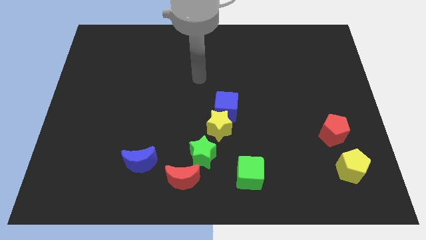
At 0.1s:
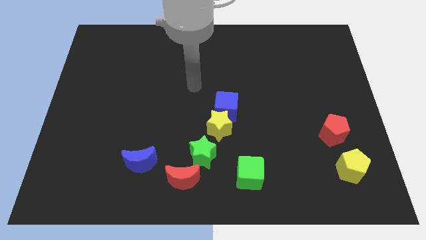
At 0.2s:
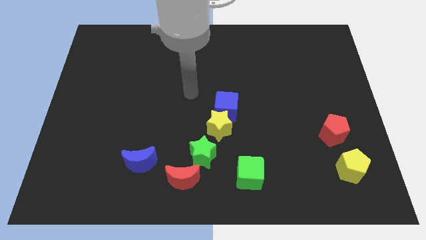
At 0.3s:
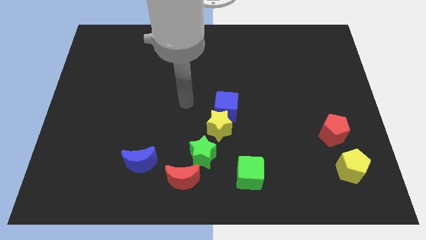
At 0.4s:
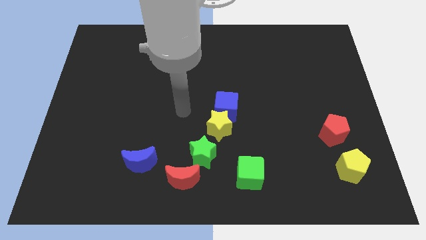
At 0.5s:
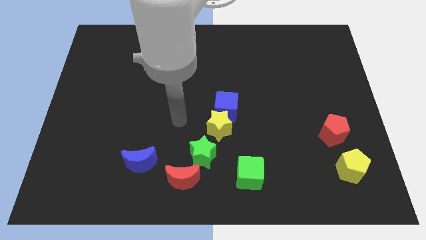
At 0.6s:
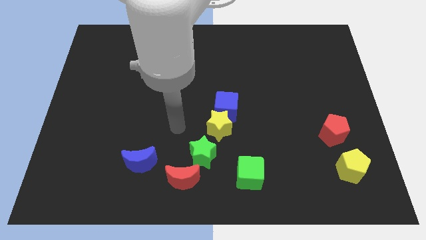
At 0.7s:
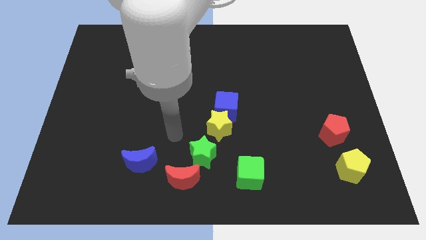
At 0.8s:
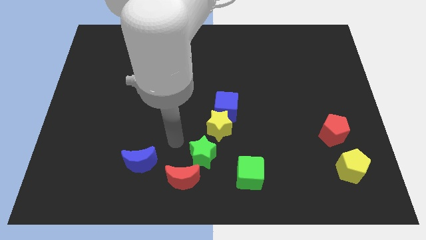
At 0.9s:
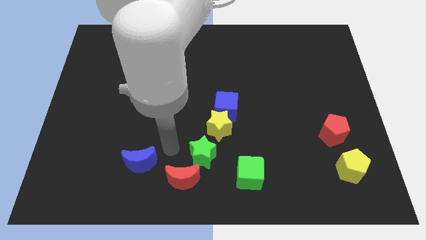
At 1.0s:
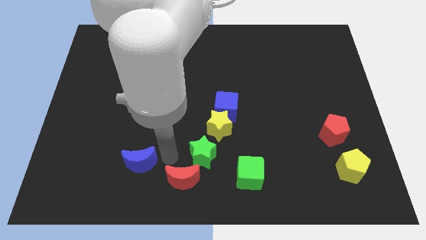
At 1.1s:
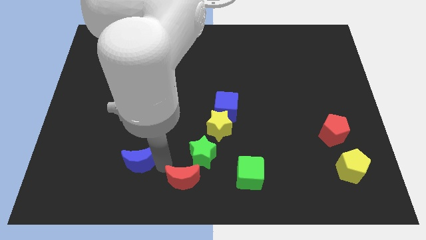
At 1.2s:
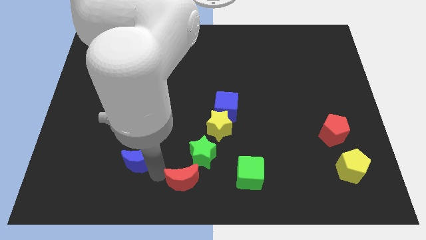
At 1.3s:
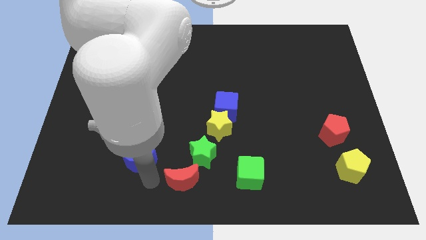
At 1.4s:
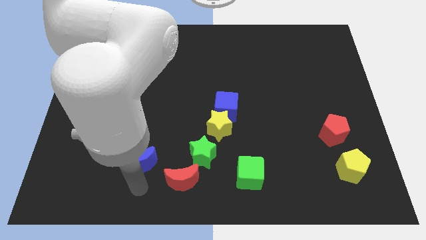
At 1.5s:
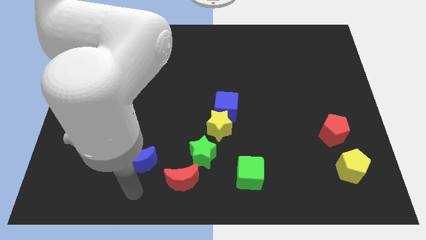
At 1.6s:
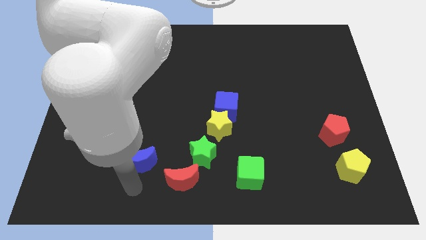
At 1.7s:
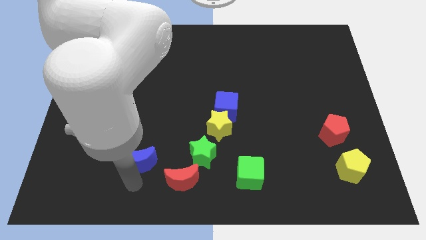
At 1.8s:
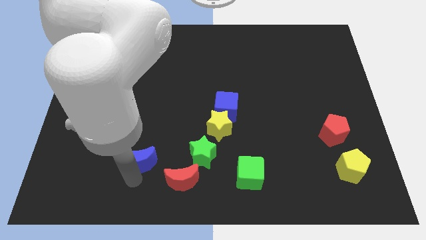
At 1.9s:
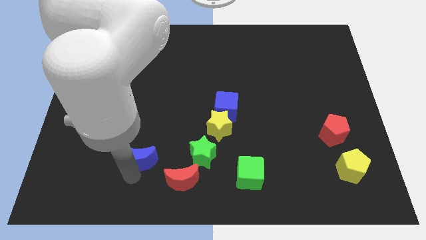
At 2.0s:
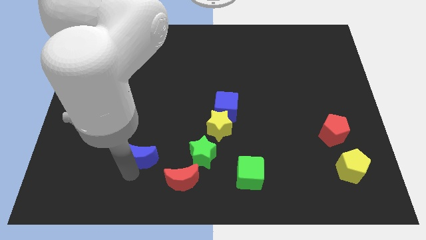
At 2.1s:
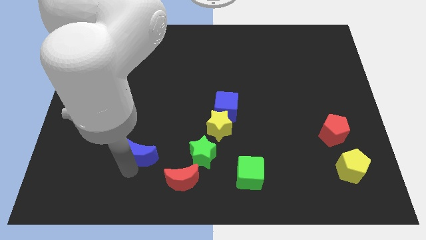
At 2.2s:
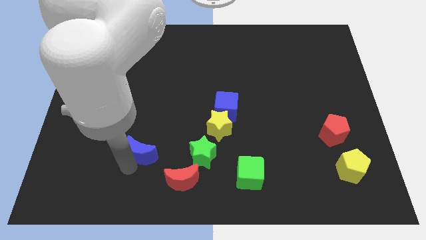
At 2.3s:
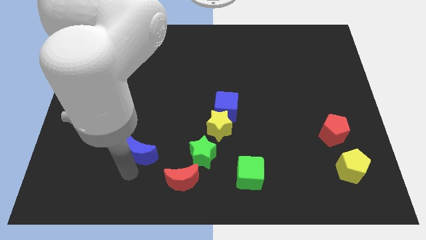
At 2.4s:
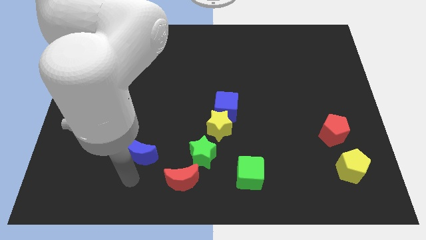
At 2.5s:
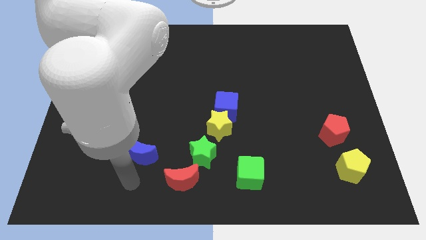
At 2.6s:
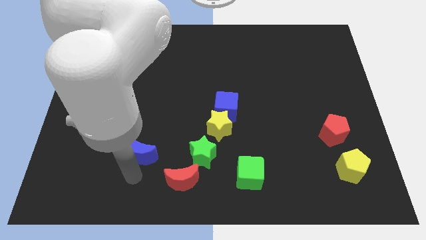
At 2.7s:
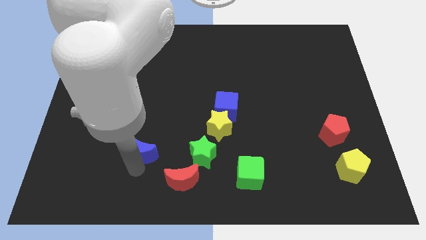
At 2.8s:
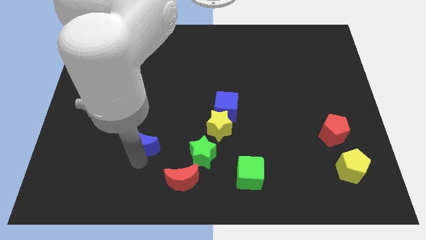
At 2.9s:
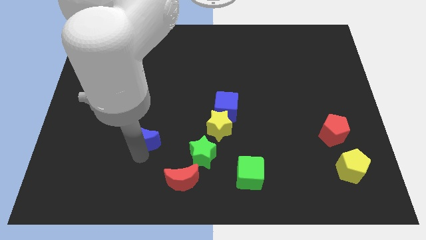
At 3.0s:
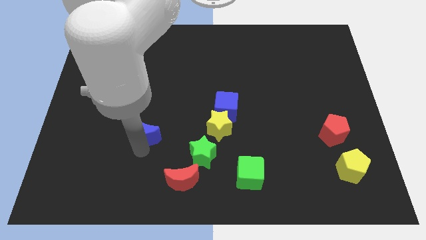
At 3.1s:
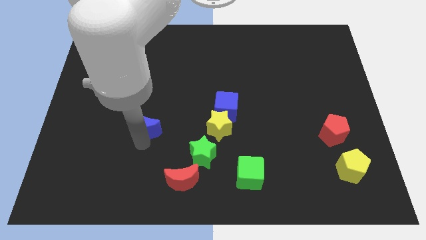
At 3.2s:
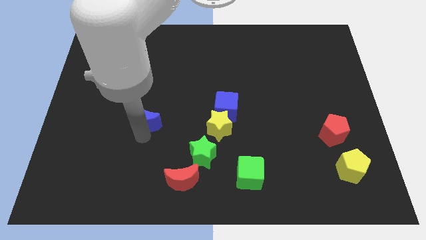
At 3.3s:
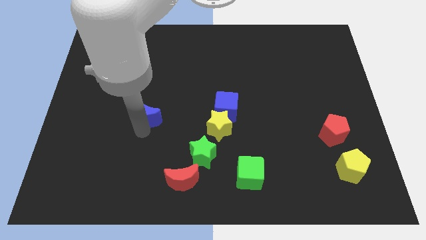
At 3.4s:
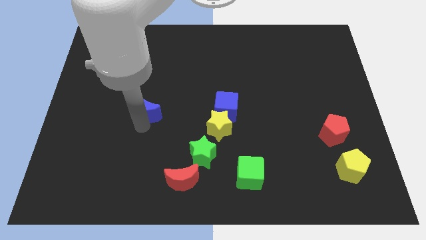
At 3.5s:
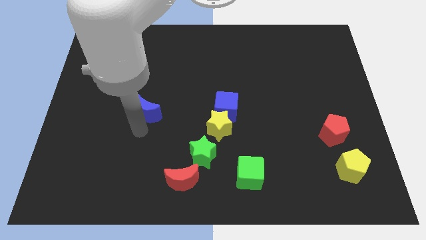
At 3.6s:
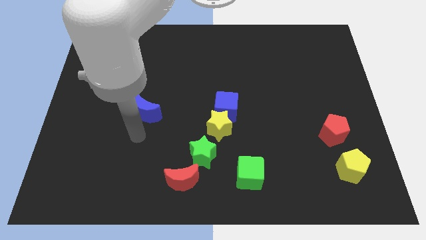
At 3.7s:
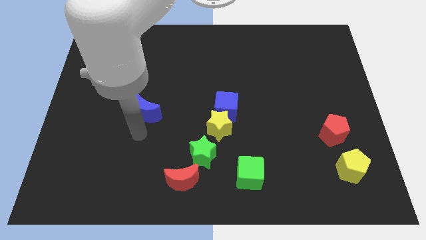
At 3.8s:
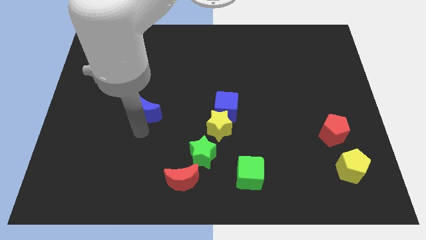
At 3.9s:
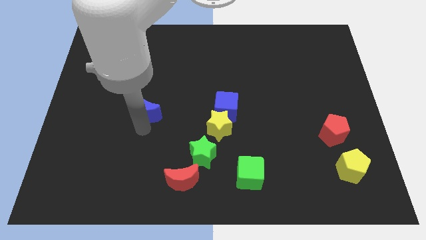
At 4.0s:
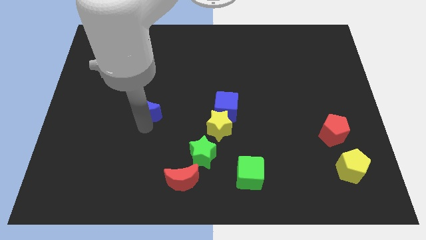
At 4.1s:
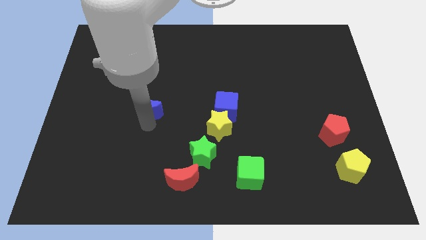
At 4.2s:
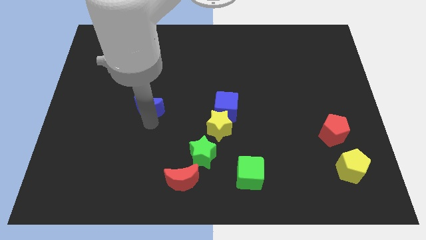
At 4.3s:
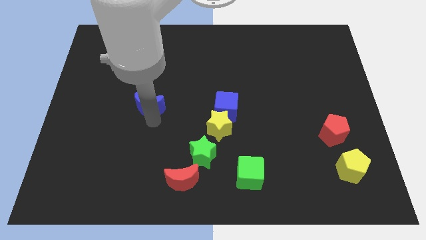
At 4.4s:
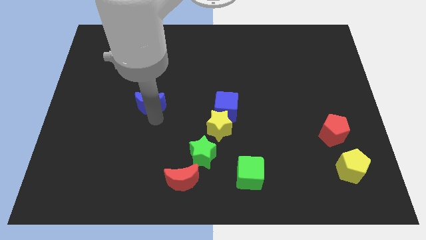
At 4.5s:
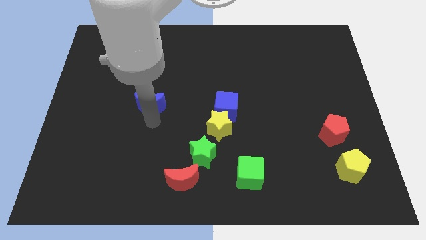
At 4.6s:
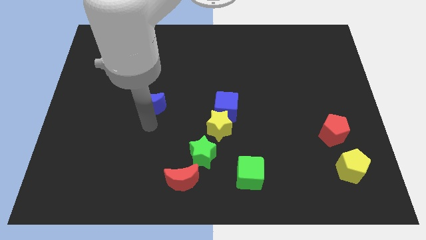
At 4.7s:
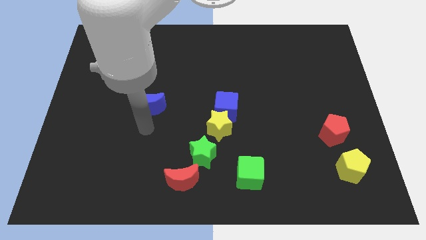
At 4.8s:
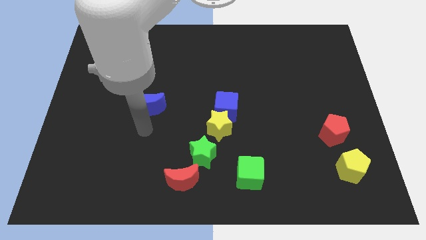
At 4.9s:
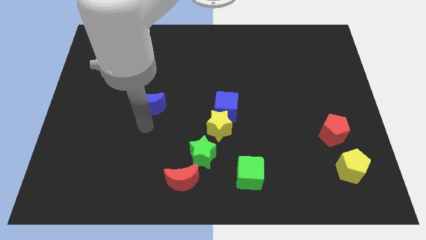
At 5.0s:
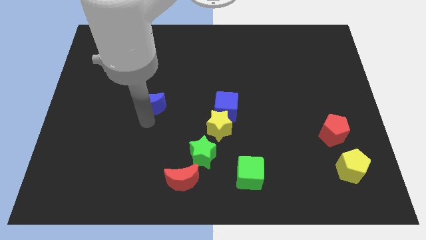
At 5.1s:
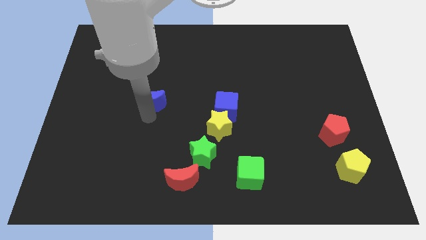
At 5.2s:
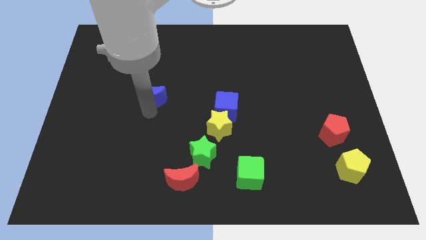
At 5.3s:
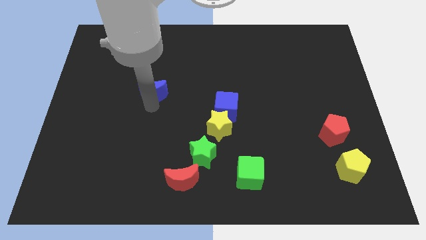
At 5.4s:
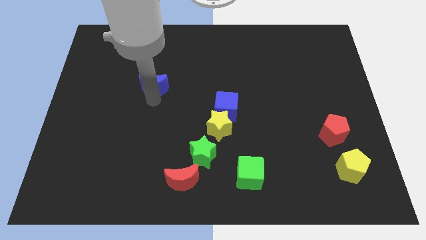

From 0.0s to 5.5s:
push the blue moon upwards

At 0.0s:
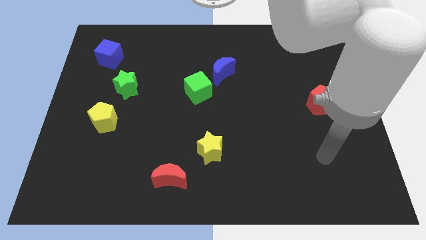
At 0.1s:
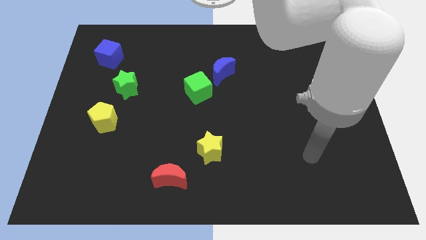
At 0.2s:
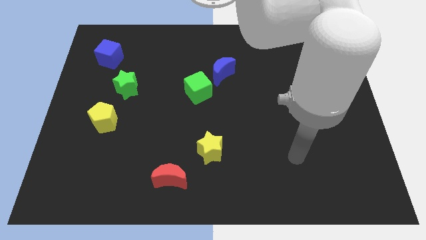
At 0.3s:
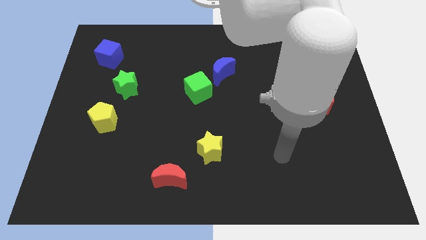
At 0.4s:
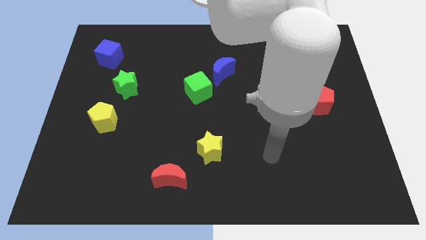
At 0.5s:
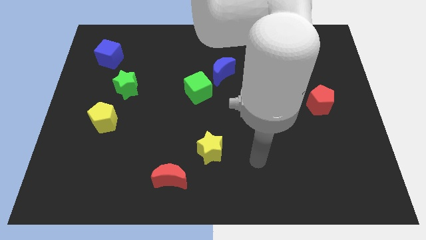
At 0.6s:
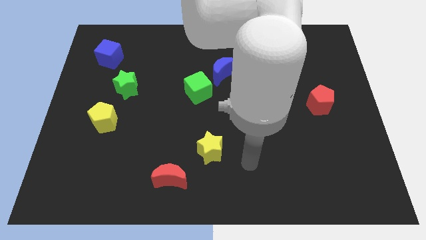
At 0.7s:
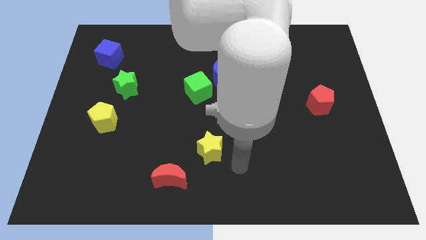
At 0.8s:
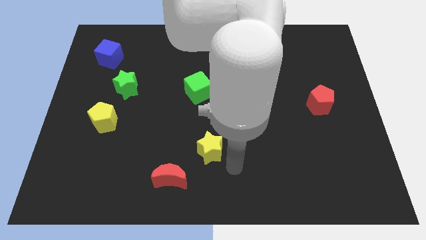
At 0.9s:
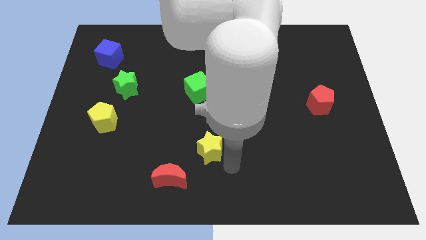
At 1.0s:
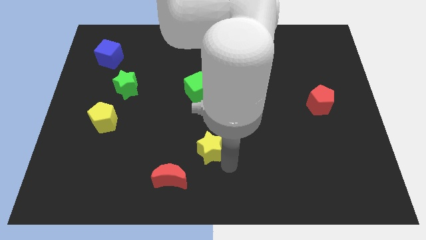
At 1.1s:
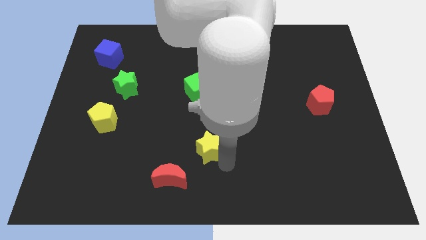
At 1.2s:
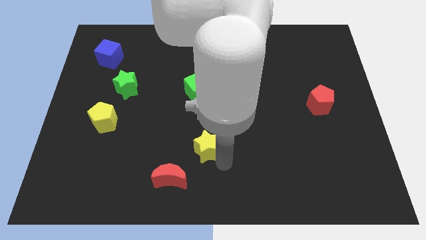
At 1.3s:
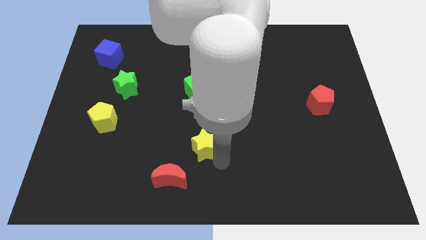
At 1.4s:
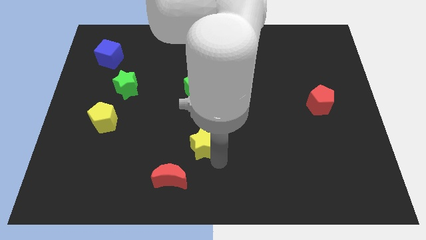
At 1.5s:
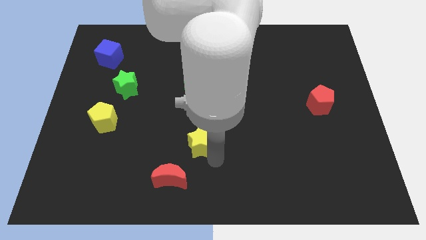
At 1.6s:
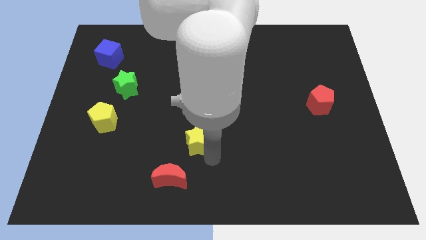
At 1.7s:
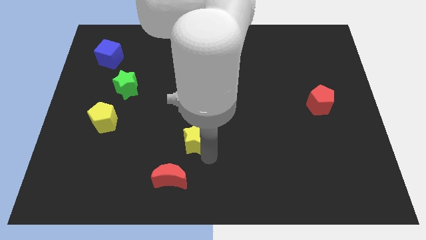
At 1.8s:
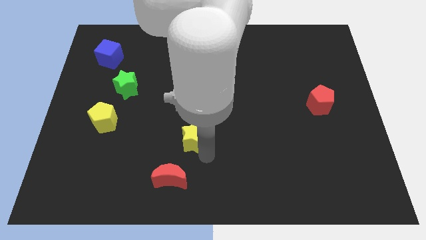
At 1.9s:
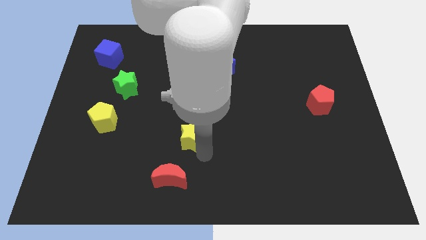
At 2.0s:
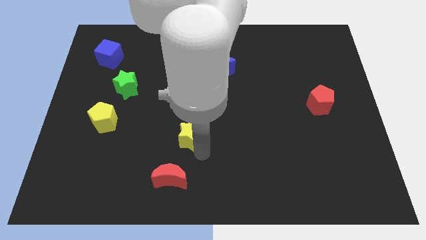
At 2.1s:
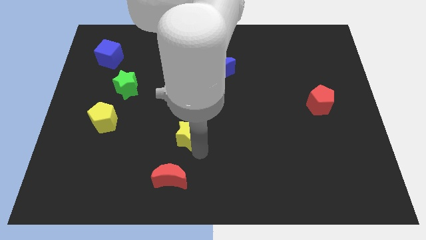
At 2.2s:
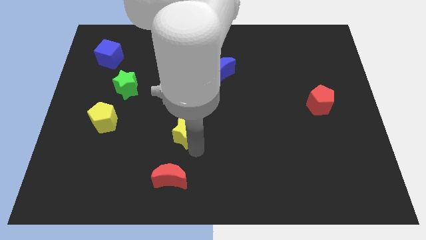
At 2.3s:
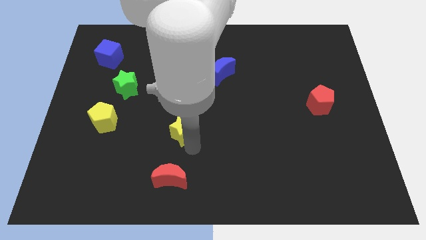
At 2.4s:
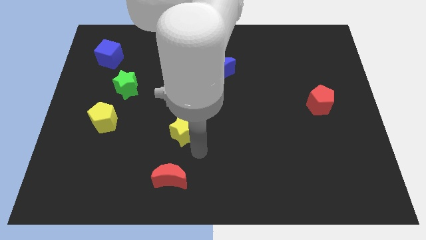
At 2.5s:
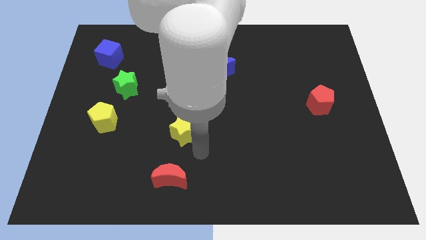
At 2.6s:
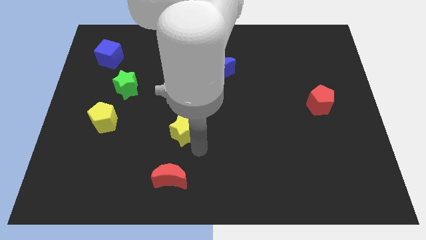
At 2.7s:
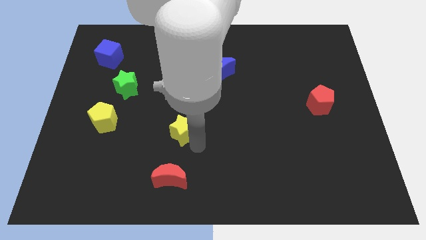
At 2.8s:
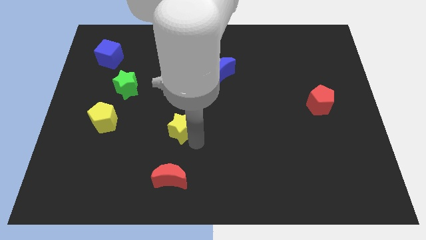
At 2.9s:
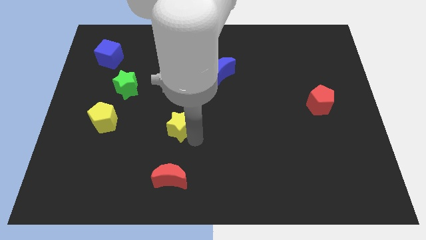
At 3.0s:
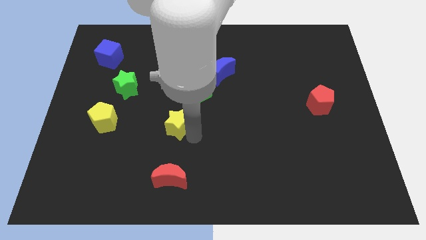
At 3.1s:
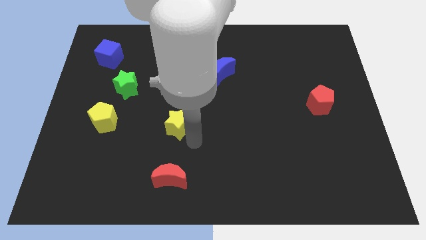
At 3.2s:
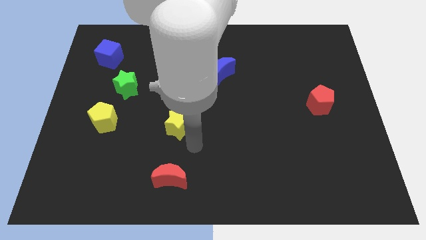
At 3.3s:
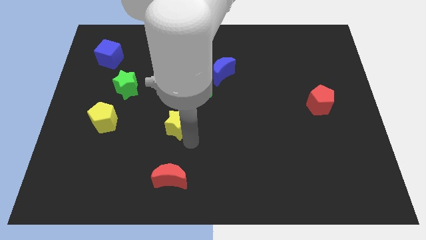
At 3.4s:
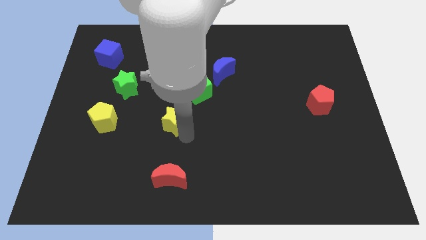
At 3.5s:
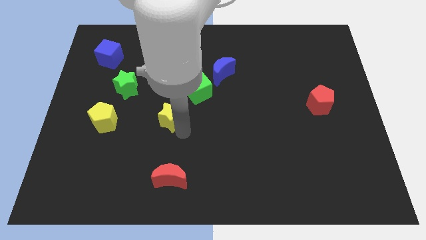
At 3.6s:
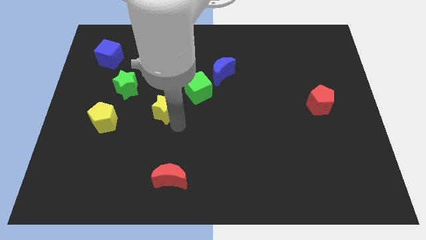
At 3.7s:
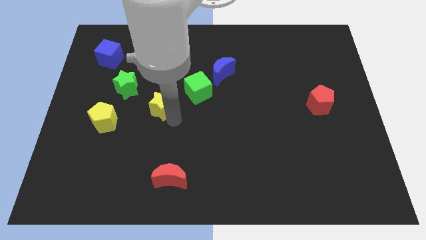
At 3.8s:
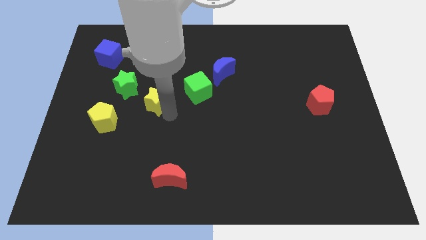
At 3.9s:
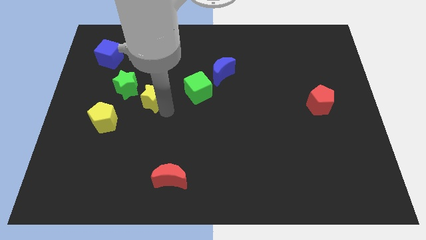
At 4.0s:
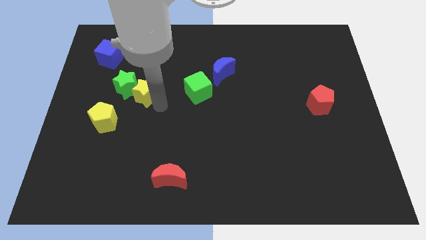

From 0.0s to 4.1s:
push the yellow star up and to the left
